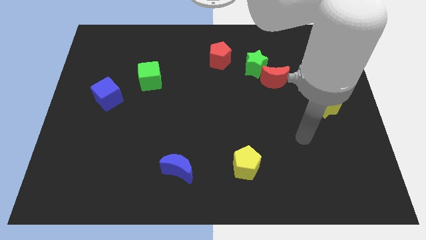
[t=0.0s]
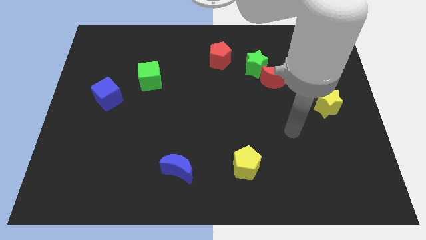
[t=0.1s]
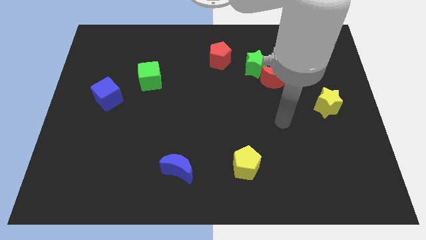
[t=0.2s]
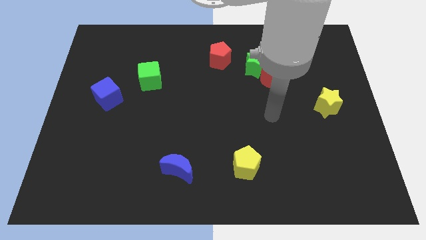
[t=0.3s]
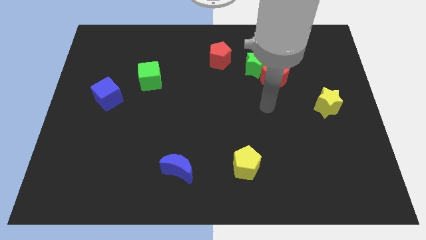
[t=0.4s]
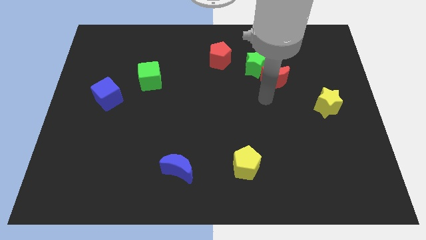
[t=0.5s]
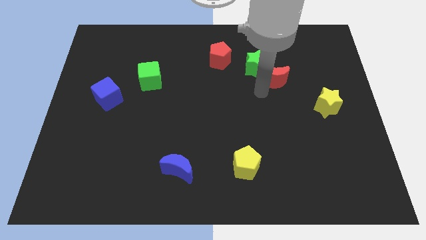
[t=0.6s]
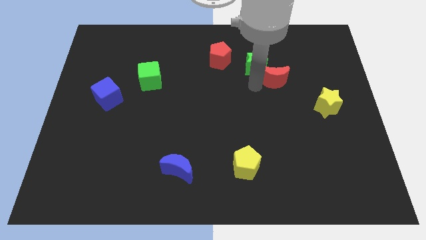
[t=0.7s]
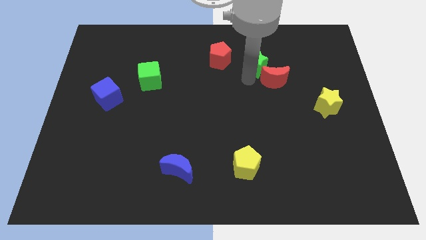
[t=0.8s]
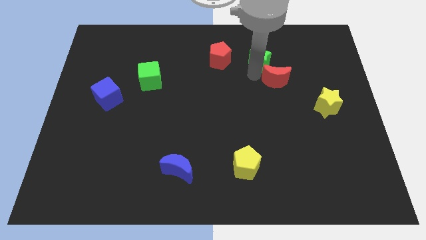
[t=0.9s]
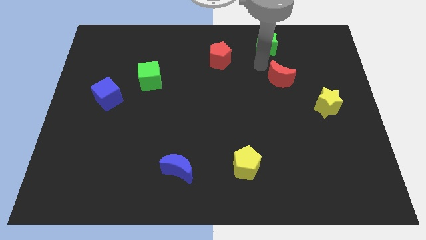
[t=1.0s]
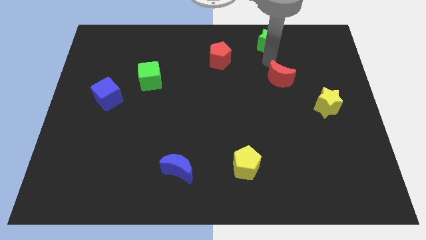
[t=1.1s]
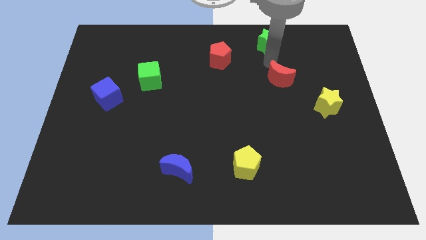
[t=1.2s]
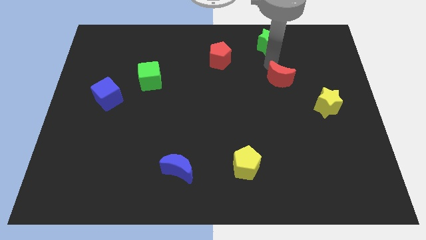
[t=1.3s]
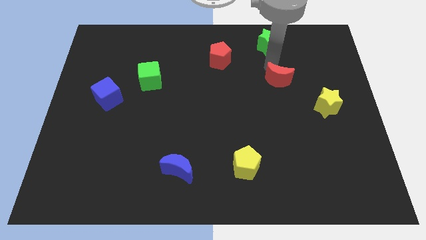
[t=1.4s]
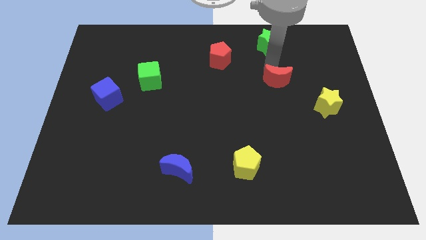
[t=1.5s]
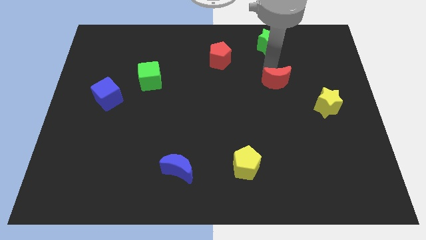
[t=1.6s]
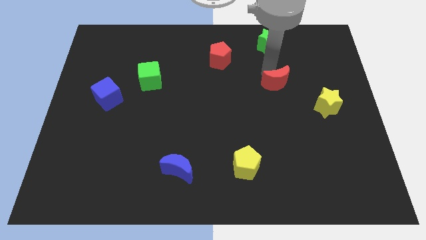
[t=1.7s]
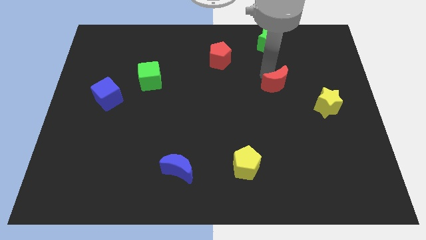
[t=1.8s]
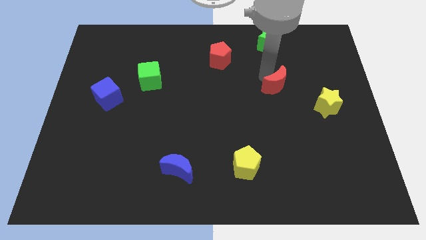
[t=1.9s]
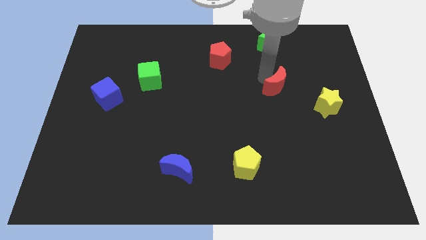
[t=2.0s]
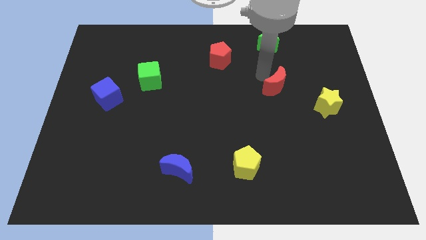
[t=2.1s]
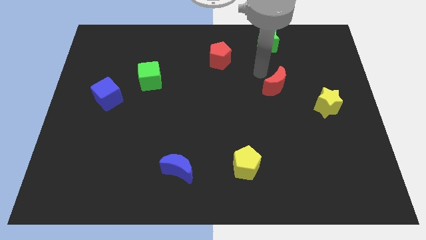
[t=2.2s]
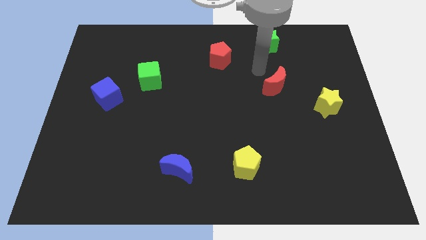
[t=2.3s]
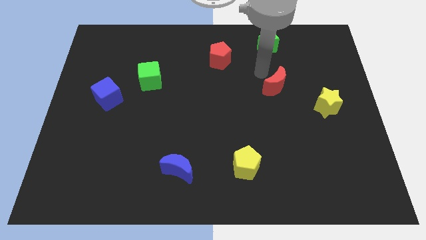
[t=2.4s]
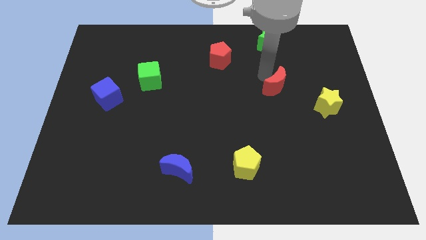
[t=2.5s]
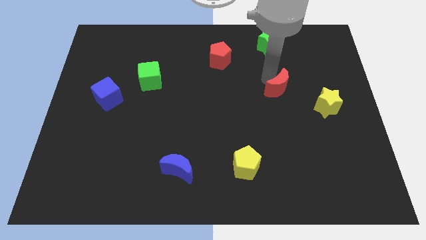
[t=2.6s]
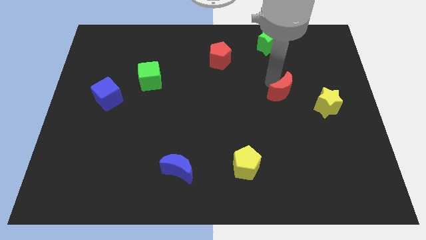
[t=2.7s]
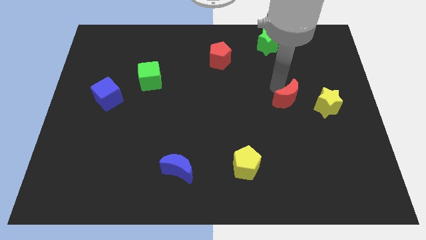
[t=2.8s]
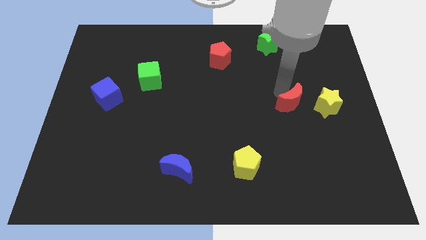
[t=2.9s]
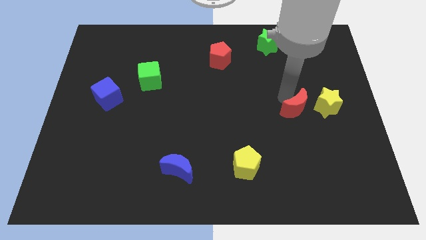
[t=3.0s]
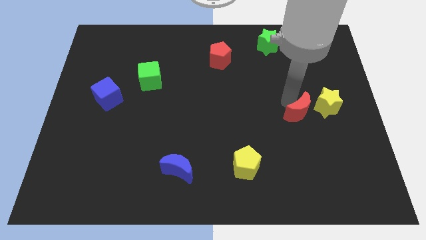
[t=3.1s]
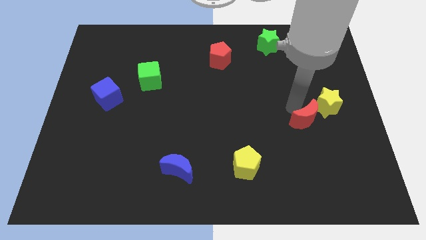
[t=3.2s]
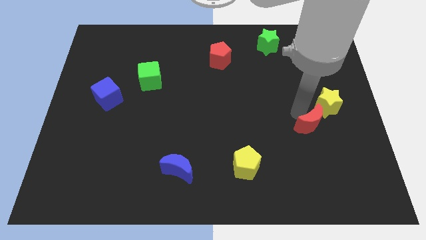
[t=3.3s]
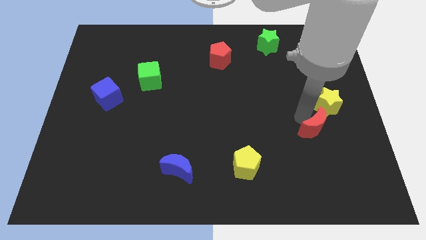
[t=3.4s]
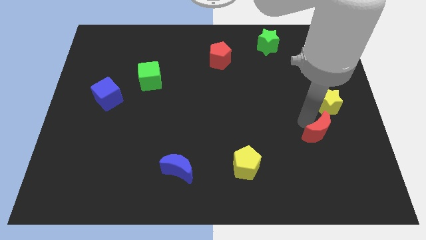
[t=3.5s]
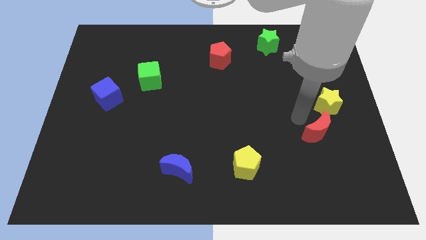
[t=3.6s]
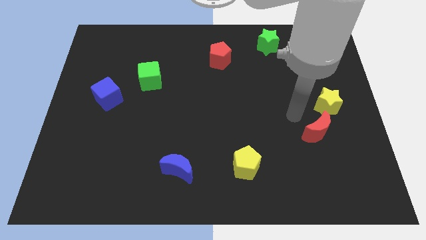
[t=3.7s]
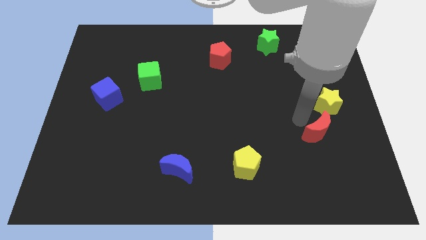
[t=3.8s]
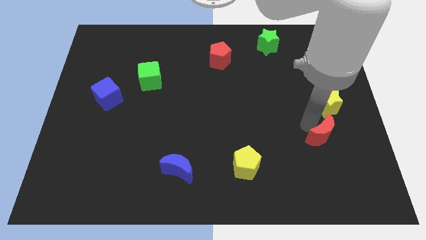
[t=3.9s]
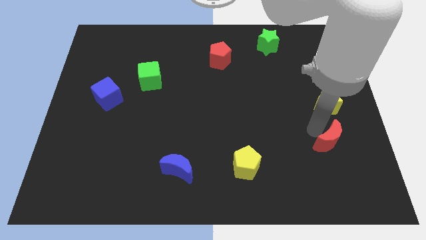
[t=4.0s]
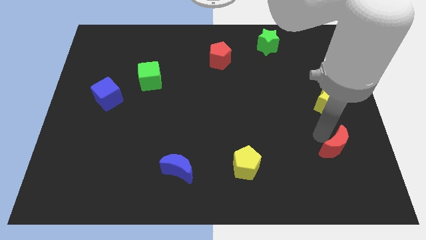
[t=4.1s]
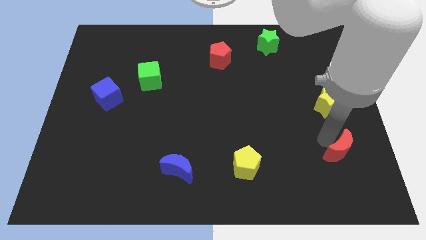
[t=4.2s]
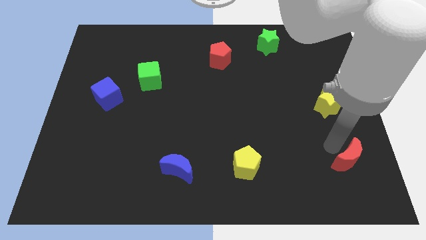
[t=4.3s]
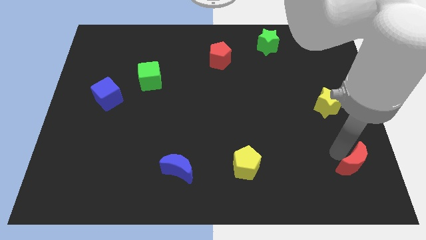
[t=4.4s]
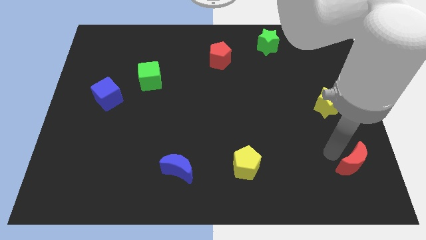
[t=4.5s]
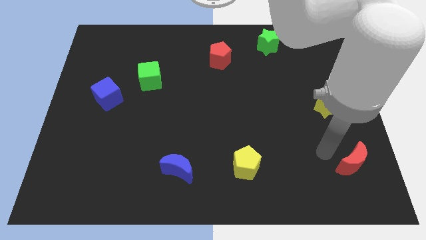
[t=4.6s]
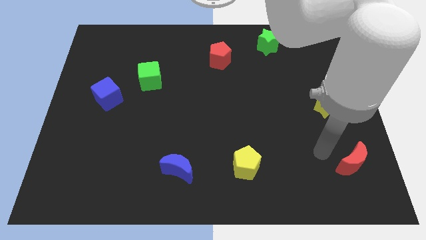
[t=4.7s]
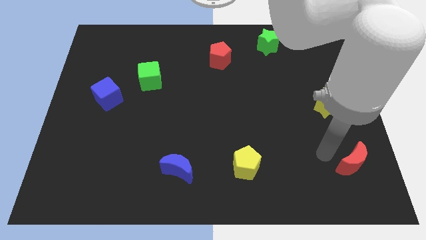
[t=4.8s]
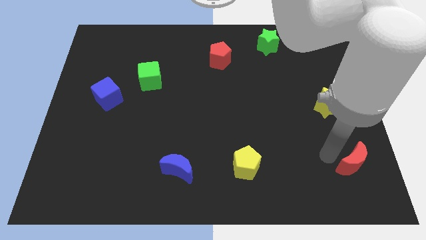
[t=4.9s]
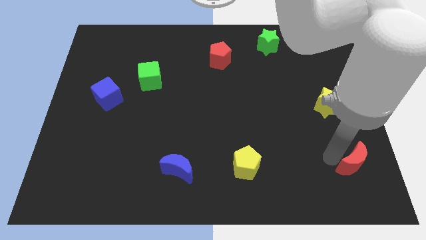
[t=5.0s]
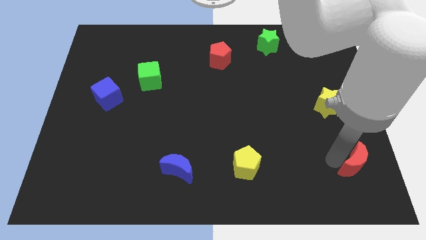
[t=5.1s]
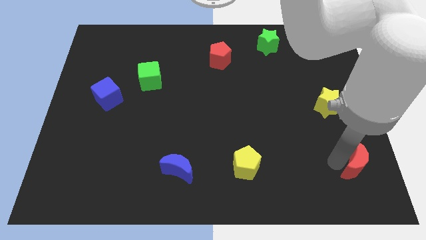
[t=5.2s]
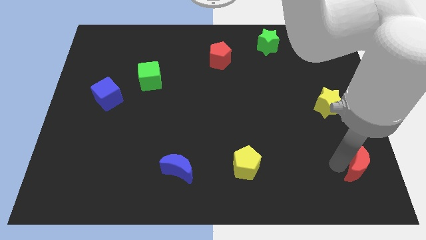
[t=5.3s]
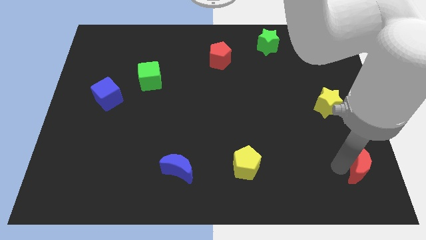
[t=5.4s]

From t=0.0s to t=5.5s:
slide the red moon to the bottom right

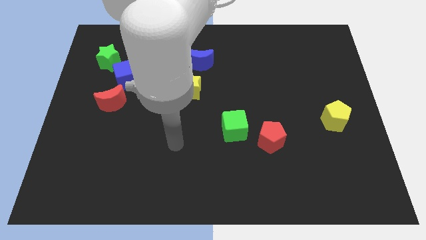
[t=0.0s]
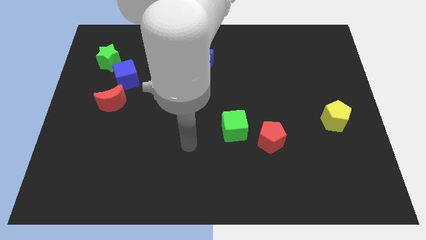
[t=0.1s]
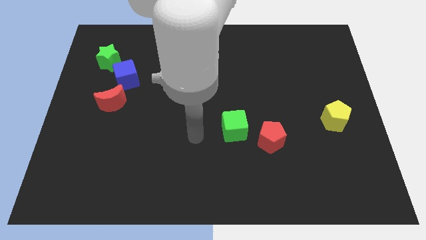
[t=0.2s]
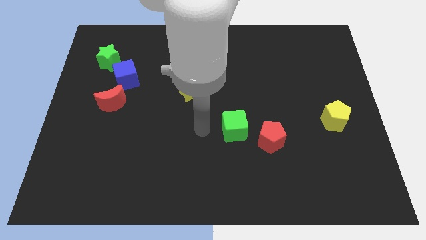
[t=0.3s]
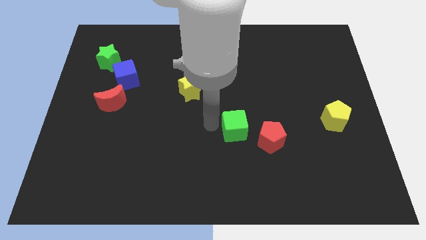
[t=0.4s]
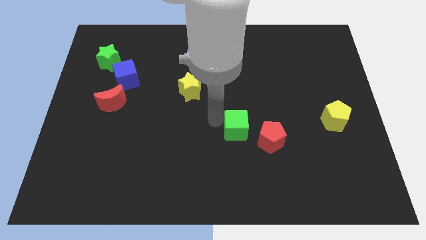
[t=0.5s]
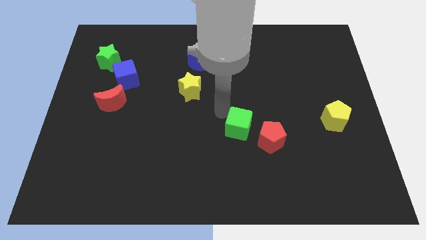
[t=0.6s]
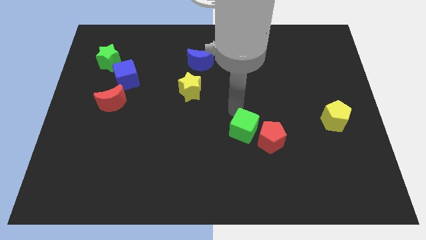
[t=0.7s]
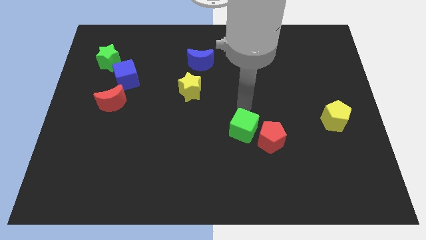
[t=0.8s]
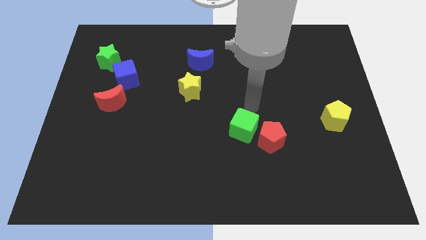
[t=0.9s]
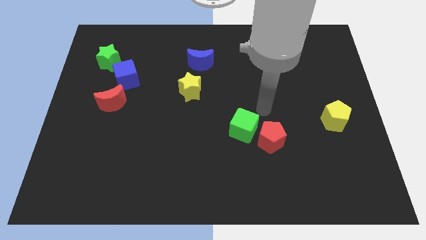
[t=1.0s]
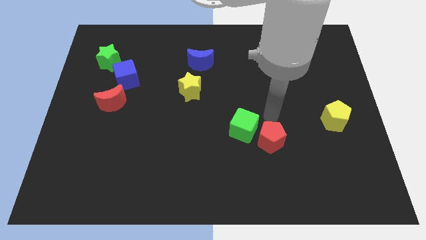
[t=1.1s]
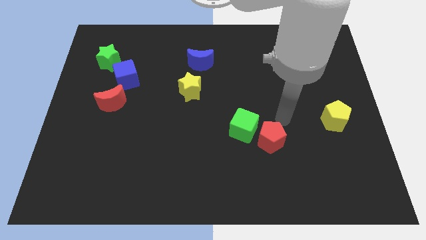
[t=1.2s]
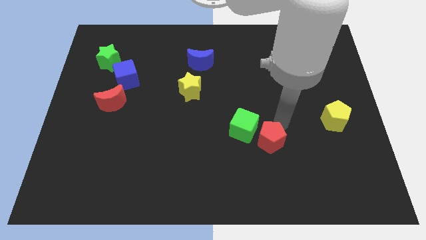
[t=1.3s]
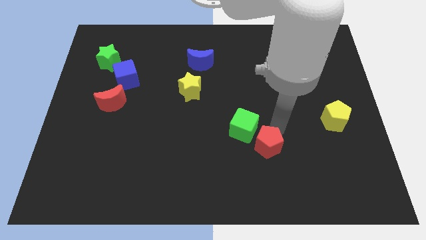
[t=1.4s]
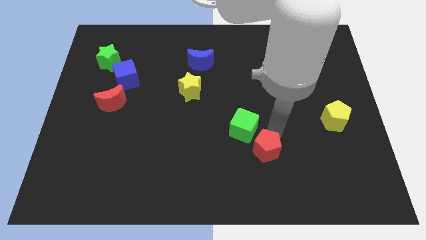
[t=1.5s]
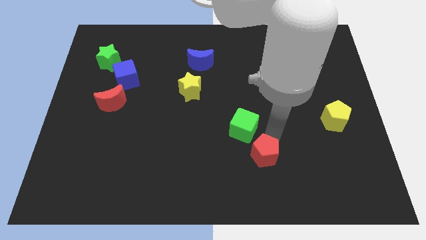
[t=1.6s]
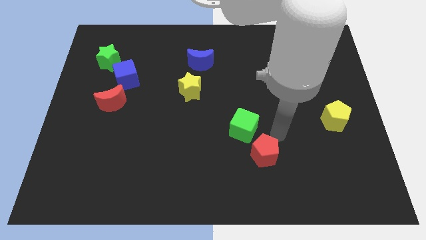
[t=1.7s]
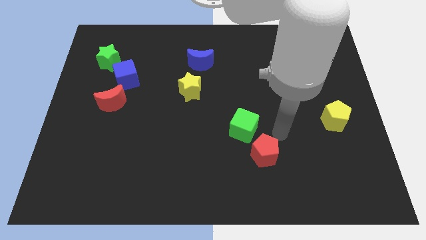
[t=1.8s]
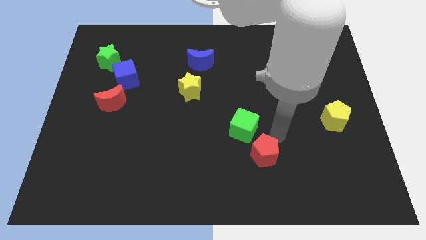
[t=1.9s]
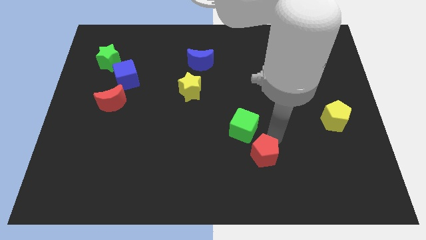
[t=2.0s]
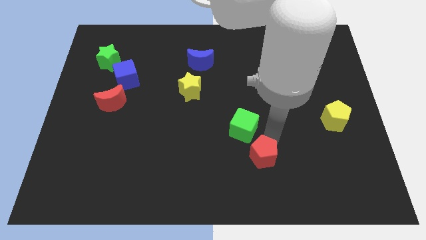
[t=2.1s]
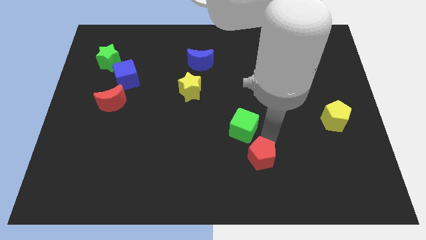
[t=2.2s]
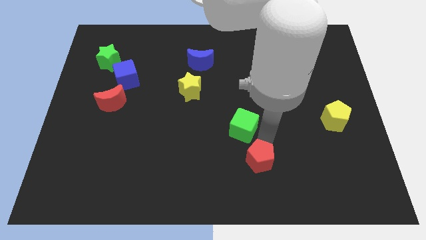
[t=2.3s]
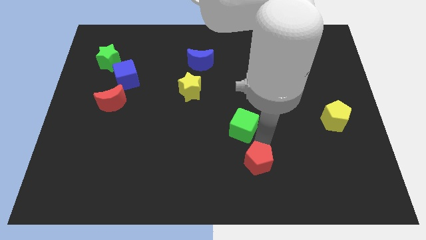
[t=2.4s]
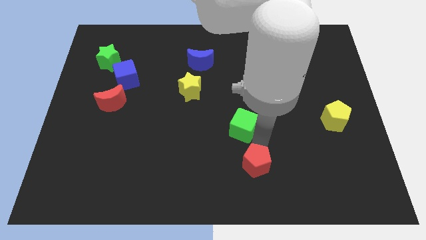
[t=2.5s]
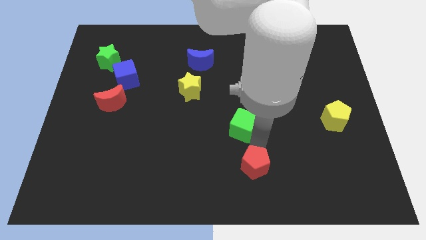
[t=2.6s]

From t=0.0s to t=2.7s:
move the red pentagon to the bottom side
